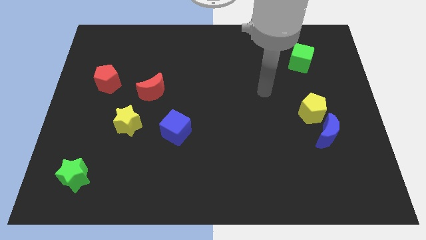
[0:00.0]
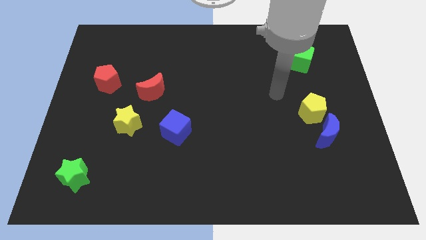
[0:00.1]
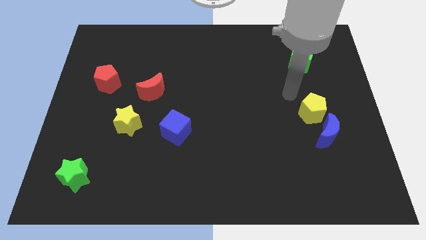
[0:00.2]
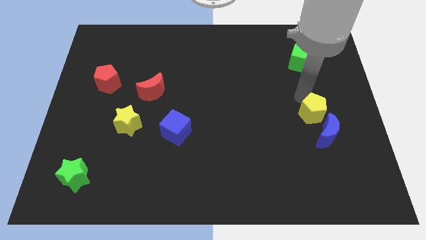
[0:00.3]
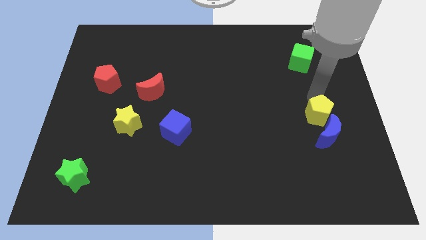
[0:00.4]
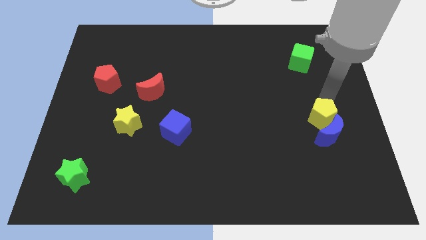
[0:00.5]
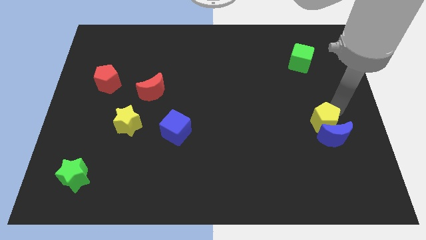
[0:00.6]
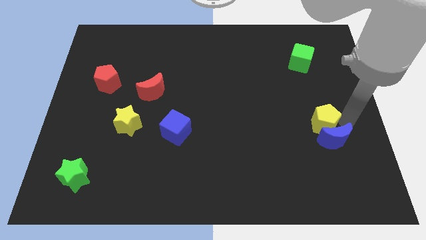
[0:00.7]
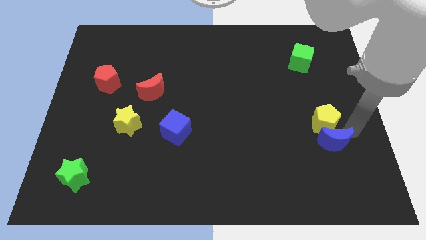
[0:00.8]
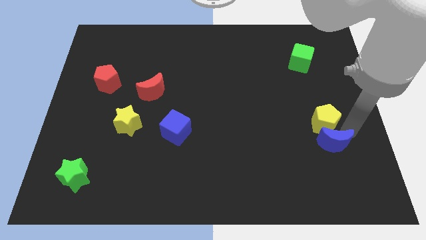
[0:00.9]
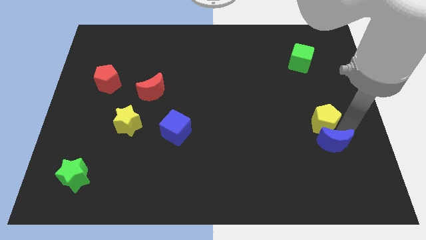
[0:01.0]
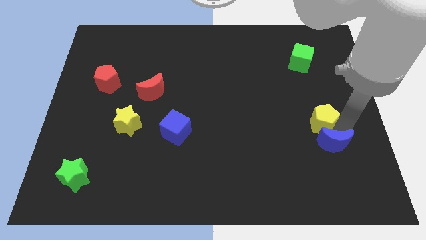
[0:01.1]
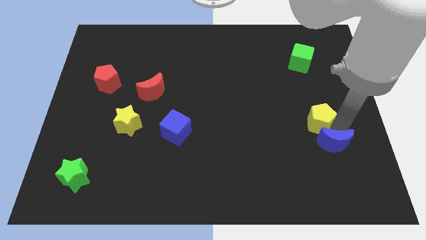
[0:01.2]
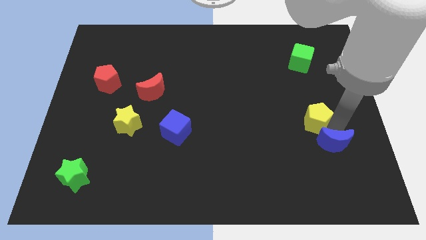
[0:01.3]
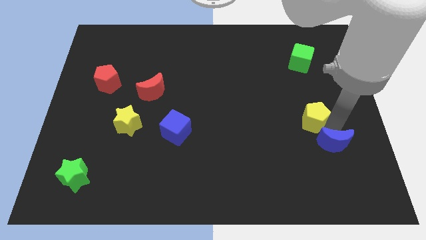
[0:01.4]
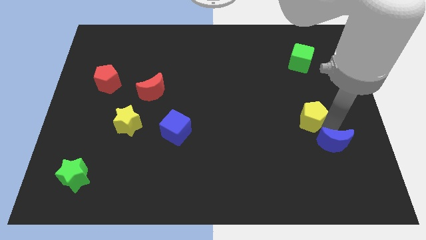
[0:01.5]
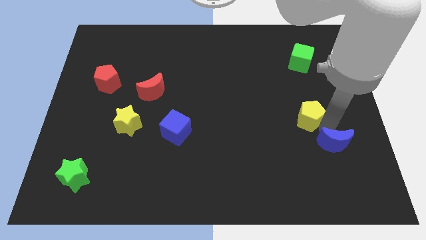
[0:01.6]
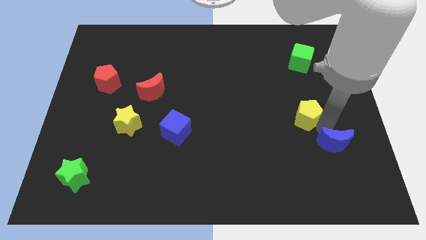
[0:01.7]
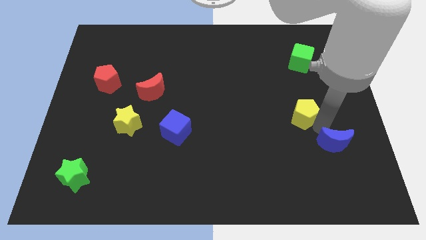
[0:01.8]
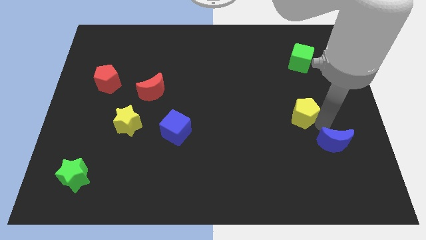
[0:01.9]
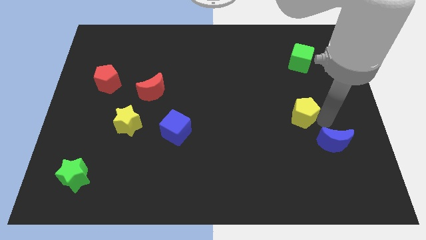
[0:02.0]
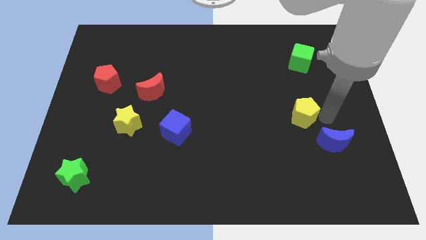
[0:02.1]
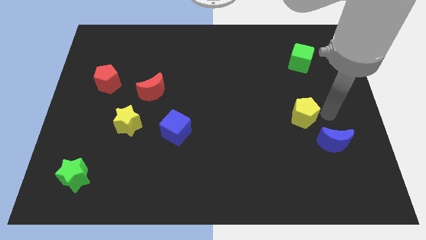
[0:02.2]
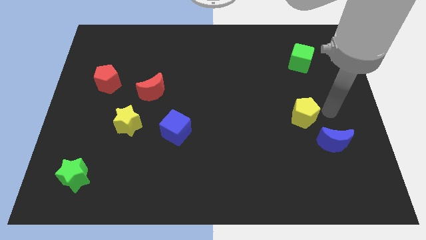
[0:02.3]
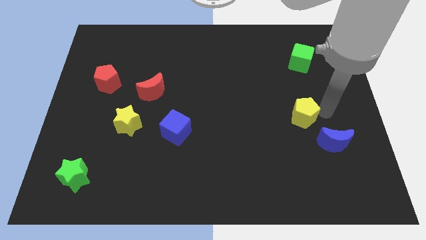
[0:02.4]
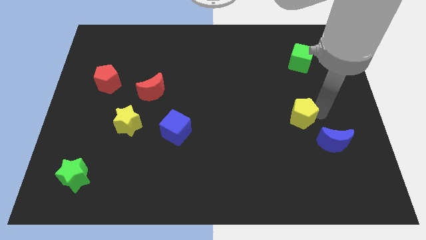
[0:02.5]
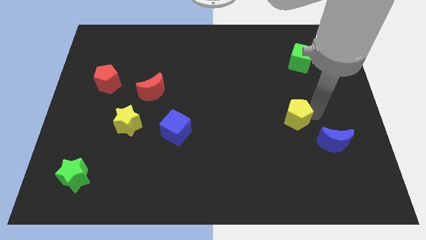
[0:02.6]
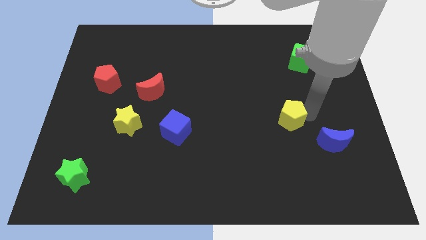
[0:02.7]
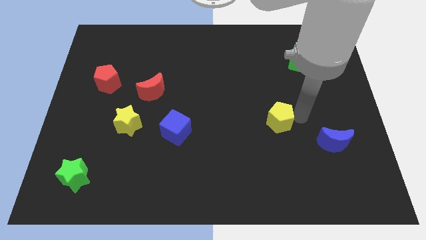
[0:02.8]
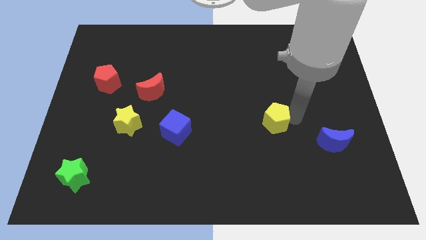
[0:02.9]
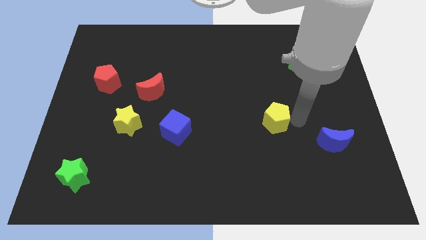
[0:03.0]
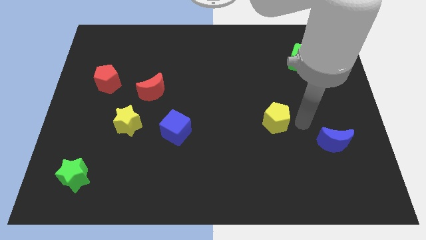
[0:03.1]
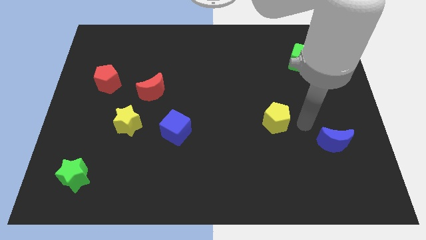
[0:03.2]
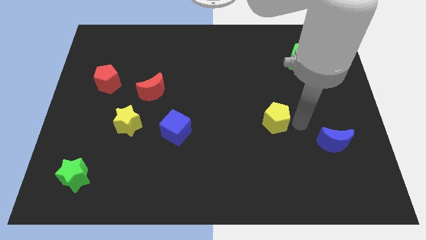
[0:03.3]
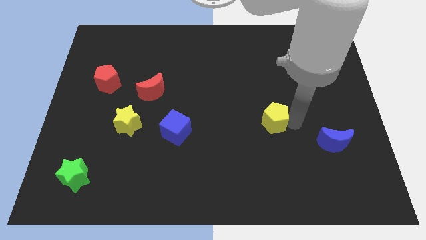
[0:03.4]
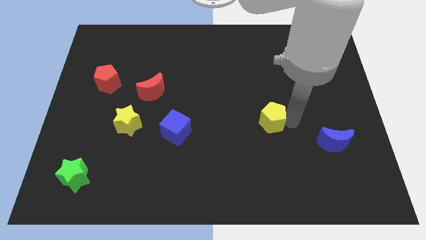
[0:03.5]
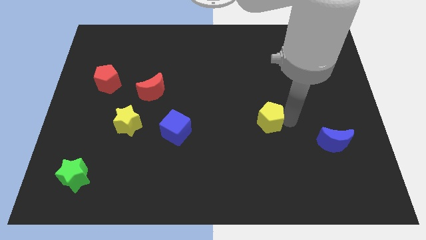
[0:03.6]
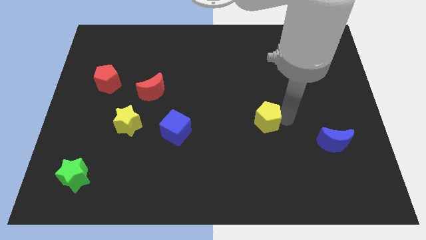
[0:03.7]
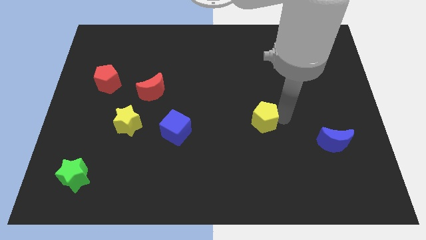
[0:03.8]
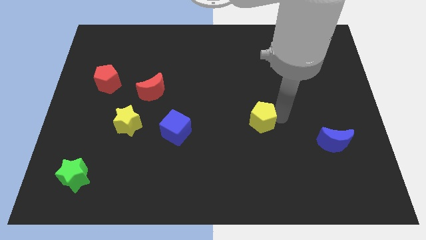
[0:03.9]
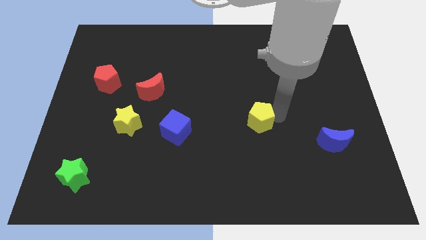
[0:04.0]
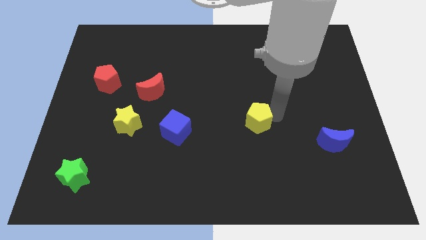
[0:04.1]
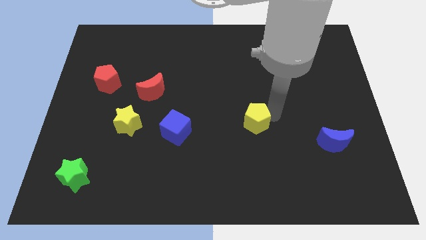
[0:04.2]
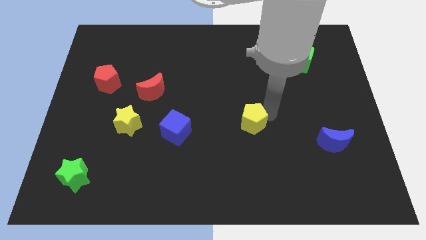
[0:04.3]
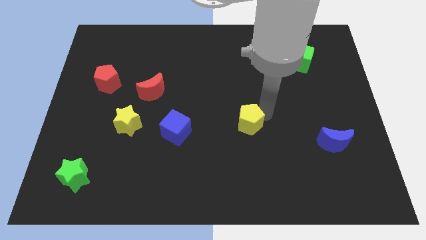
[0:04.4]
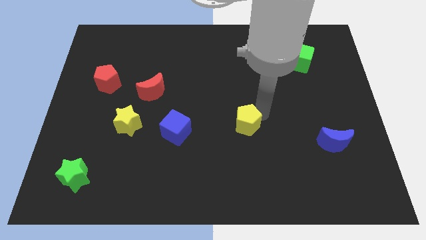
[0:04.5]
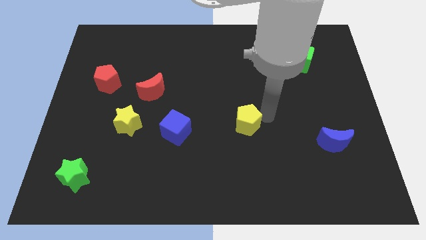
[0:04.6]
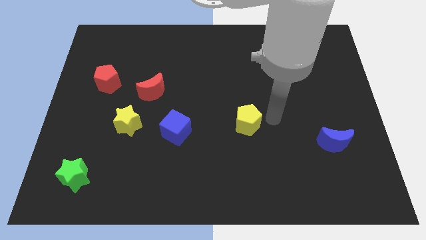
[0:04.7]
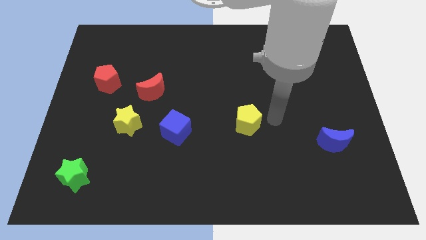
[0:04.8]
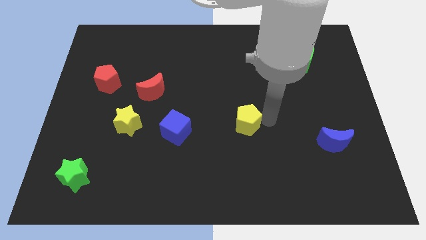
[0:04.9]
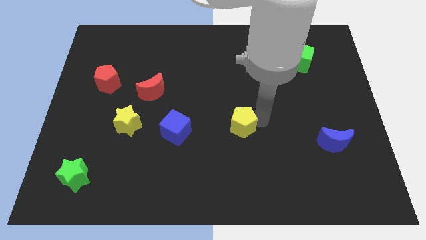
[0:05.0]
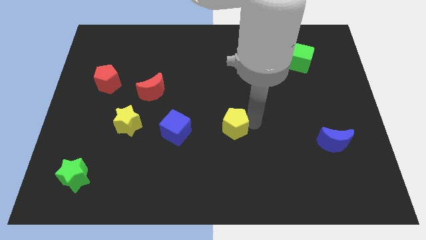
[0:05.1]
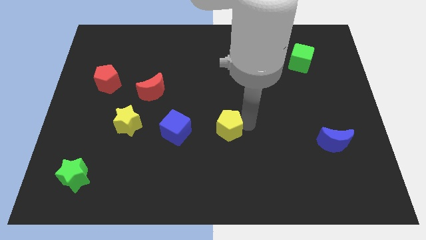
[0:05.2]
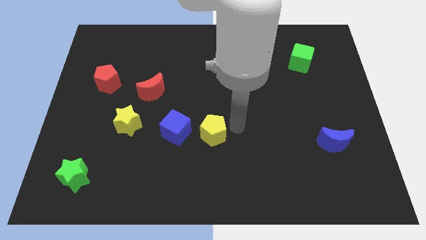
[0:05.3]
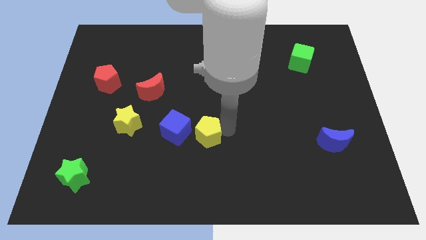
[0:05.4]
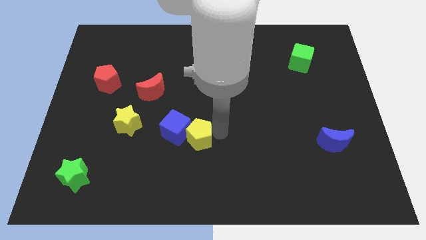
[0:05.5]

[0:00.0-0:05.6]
put the yellow pentagon to the blue cube

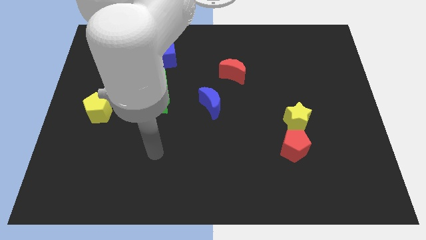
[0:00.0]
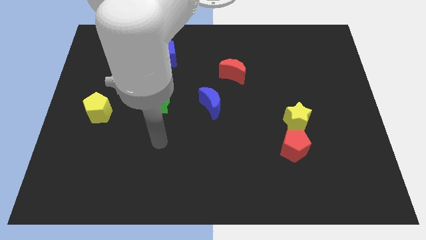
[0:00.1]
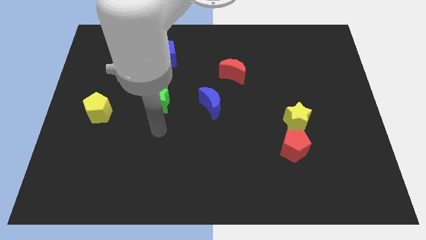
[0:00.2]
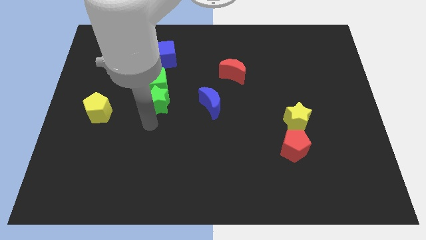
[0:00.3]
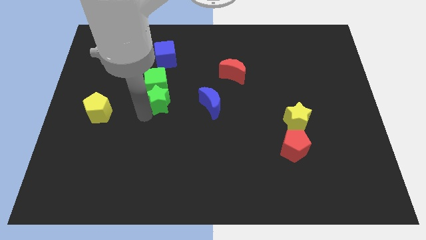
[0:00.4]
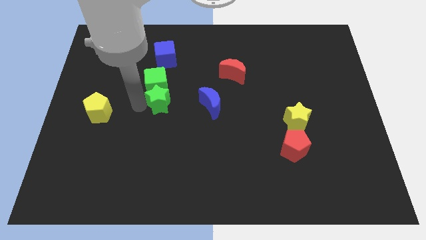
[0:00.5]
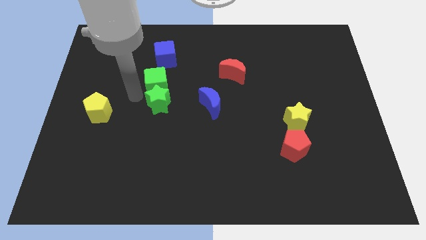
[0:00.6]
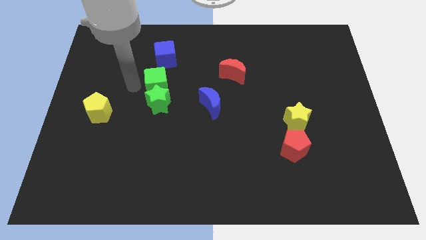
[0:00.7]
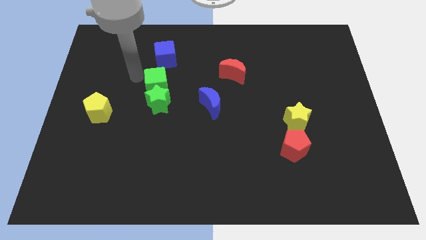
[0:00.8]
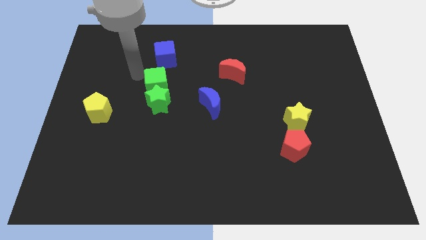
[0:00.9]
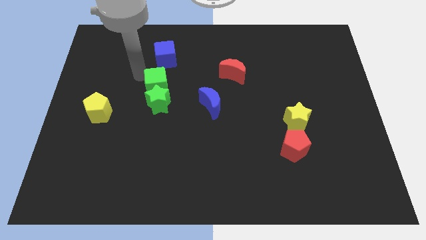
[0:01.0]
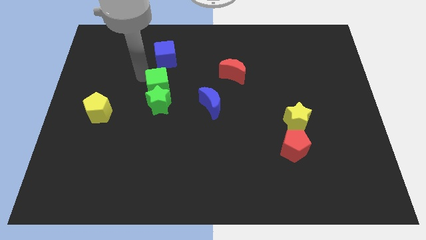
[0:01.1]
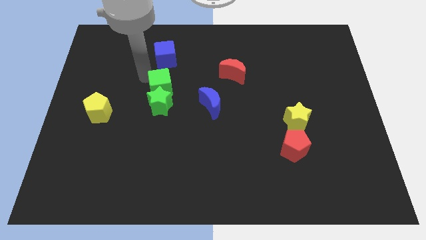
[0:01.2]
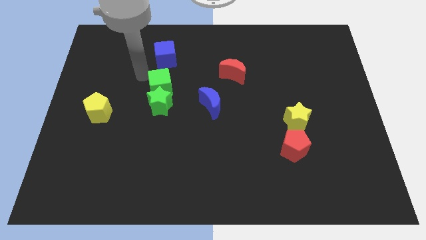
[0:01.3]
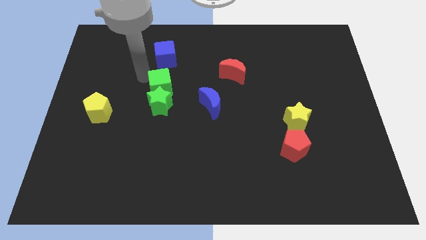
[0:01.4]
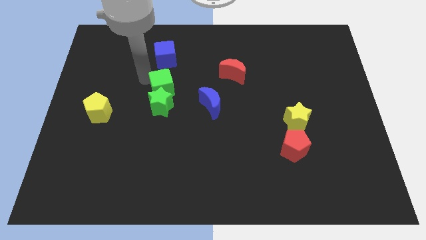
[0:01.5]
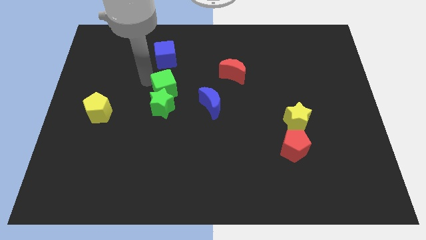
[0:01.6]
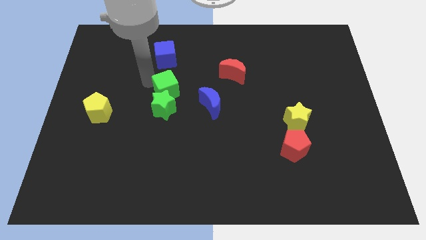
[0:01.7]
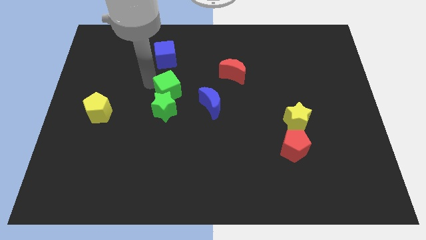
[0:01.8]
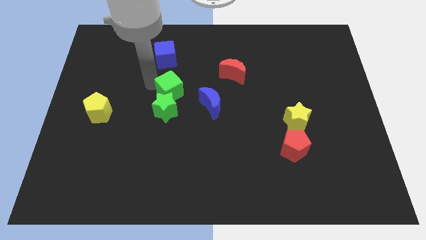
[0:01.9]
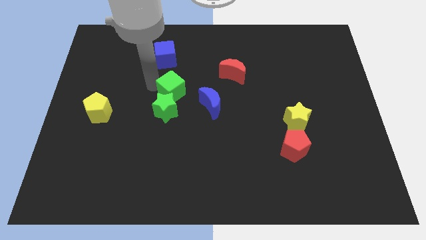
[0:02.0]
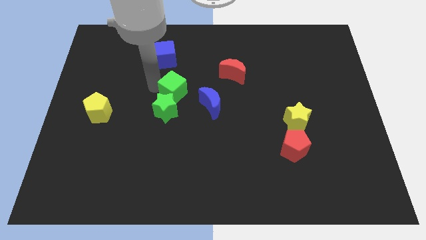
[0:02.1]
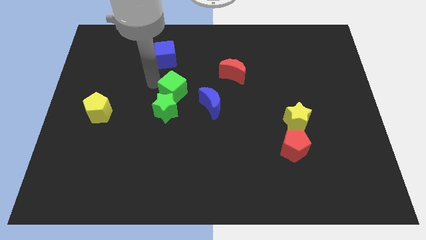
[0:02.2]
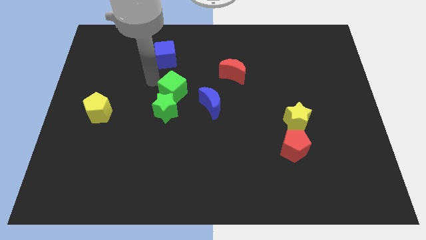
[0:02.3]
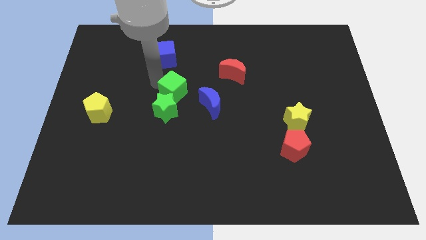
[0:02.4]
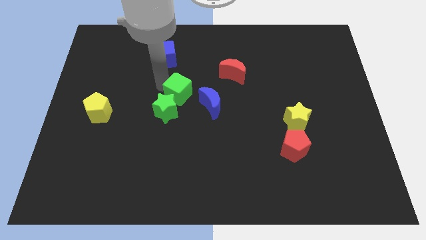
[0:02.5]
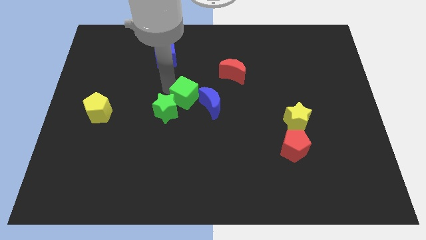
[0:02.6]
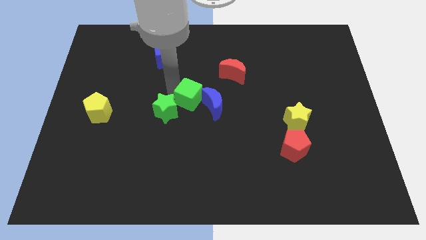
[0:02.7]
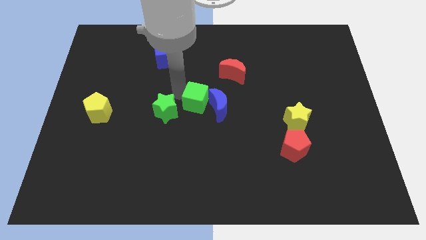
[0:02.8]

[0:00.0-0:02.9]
move the green cube to the blue moon
